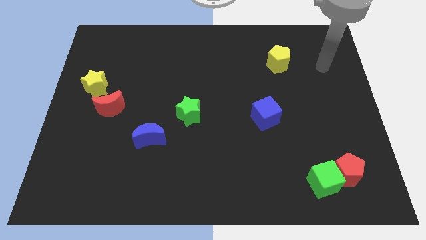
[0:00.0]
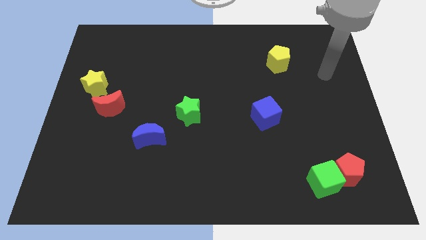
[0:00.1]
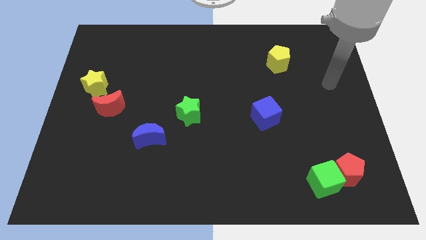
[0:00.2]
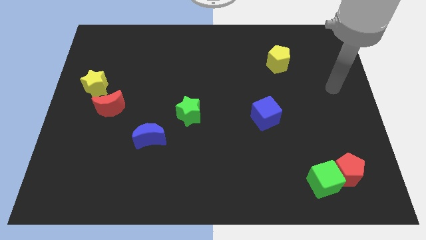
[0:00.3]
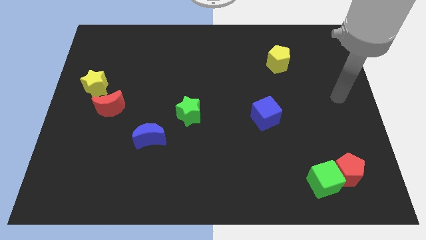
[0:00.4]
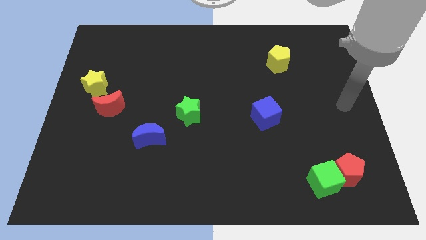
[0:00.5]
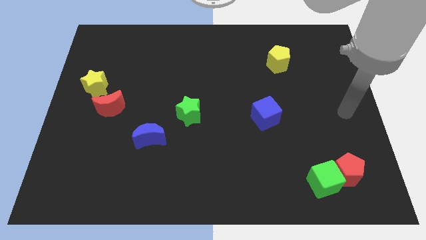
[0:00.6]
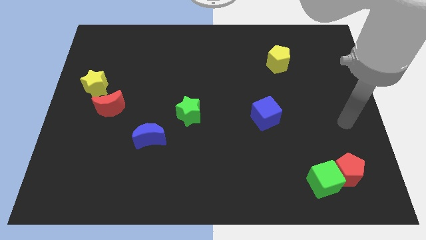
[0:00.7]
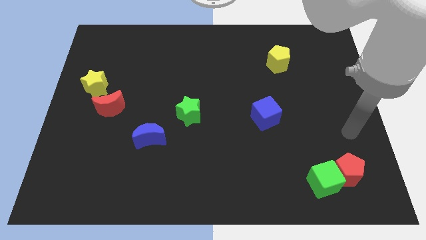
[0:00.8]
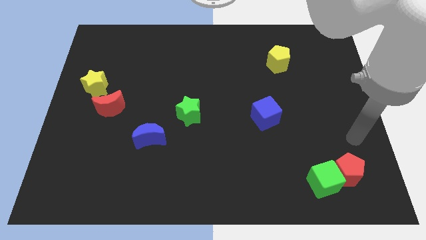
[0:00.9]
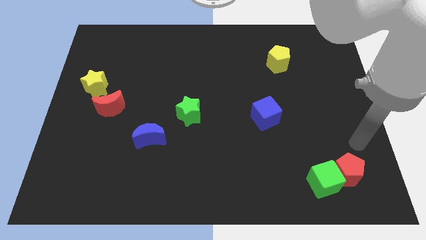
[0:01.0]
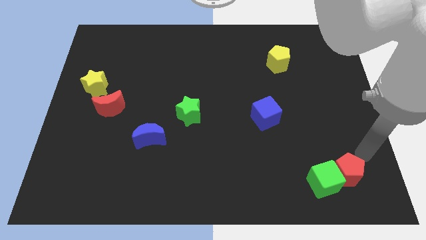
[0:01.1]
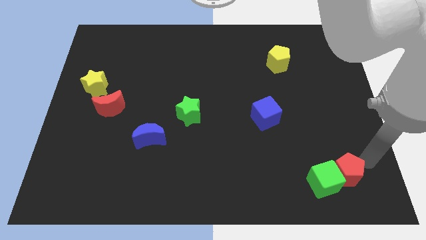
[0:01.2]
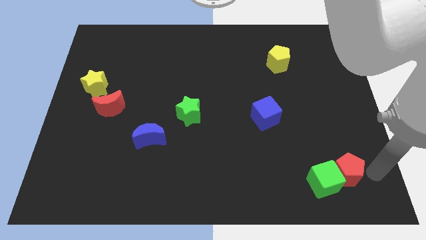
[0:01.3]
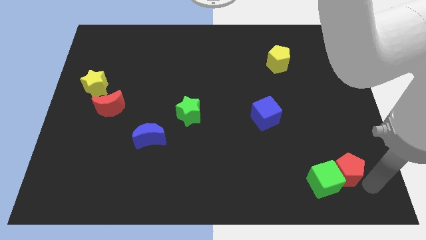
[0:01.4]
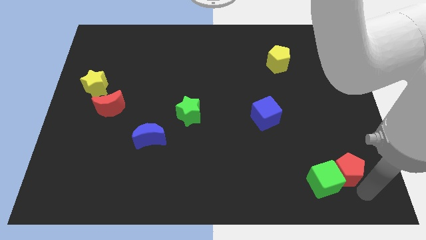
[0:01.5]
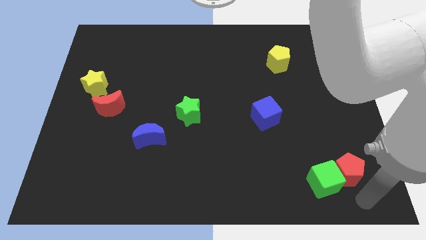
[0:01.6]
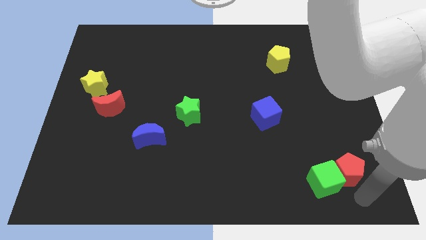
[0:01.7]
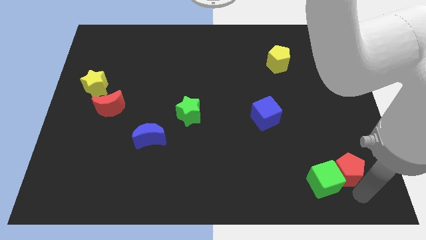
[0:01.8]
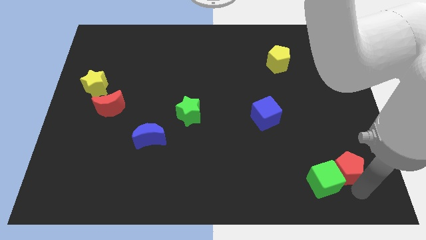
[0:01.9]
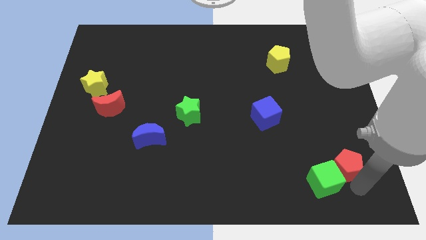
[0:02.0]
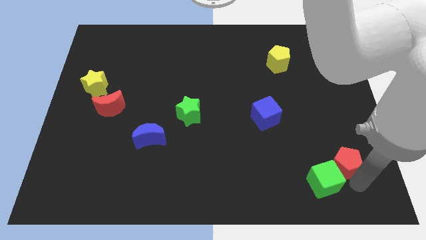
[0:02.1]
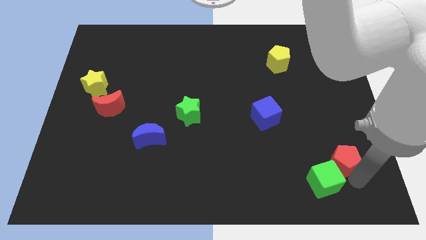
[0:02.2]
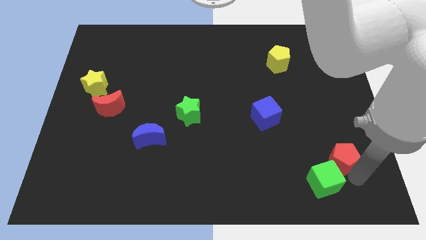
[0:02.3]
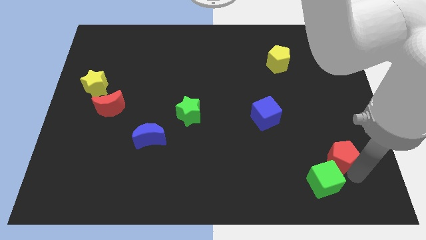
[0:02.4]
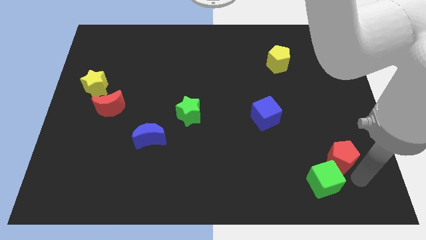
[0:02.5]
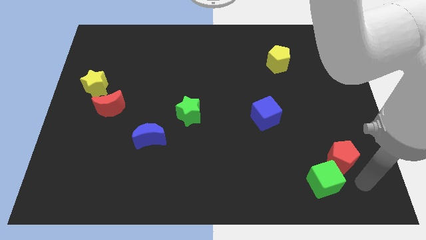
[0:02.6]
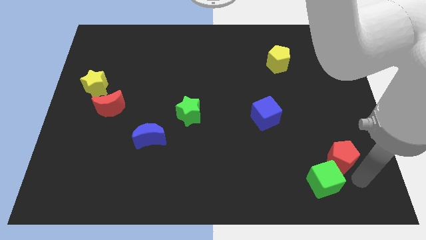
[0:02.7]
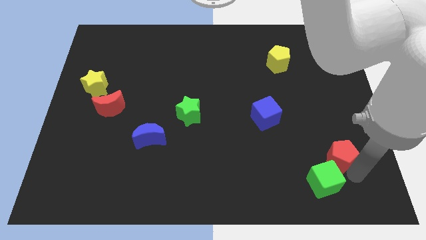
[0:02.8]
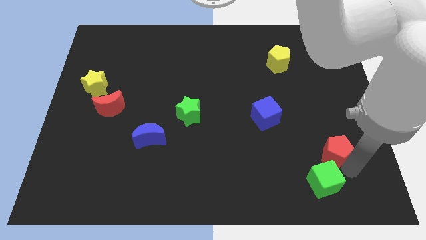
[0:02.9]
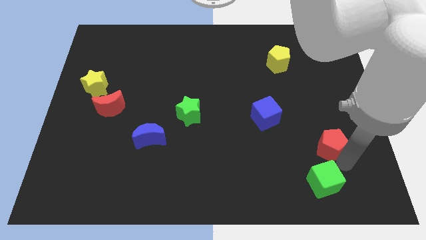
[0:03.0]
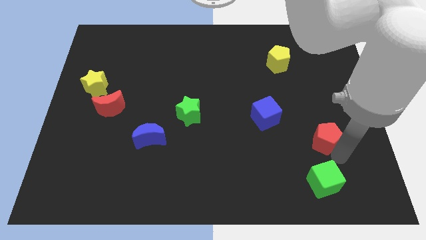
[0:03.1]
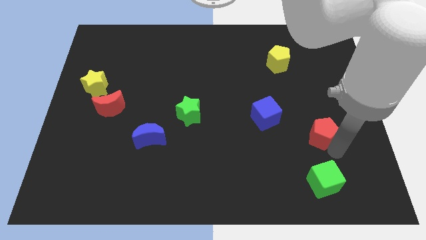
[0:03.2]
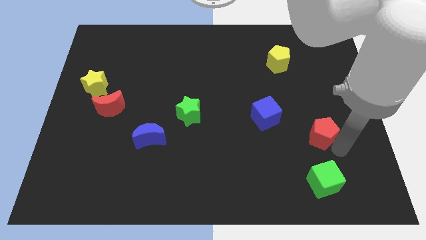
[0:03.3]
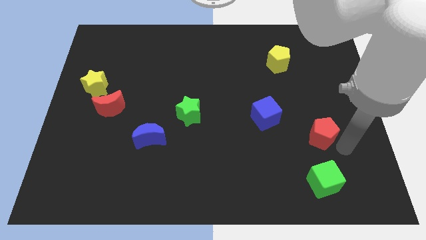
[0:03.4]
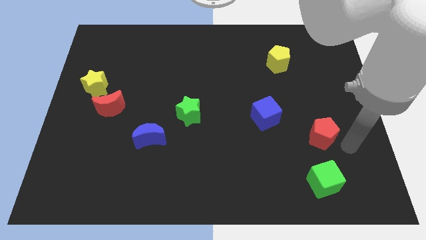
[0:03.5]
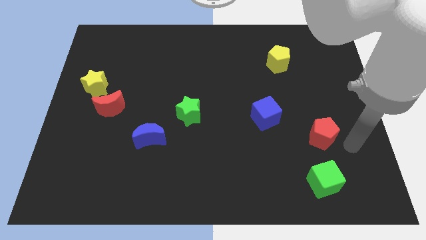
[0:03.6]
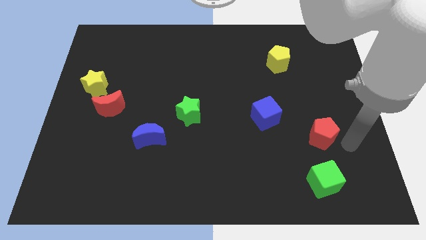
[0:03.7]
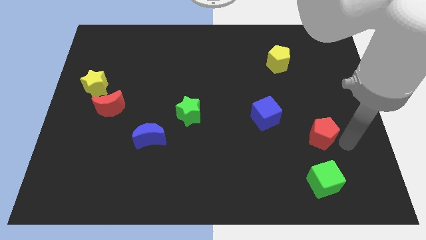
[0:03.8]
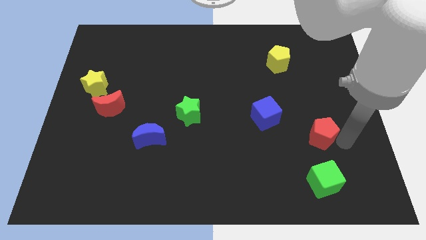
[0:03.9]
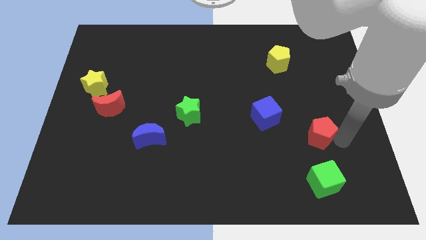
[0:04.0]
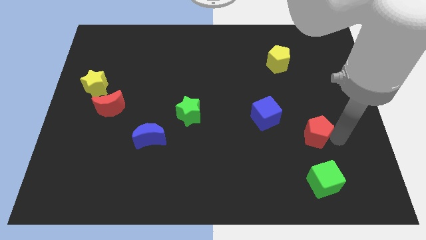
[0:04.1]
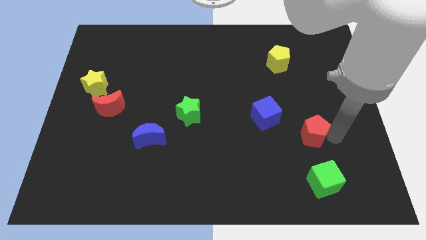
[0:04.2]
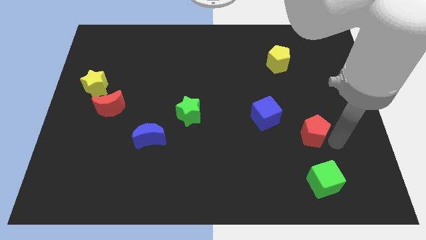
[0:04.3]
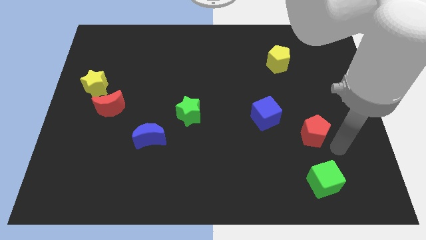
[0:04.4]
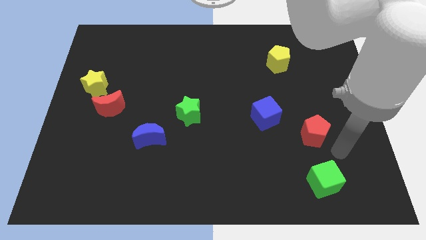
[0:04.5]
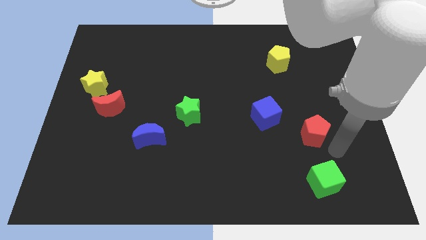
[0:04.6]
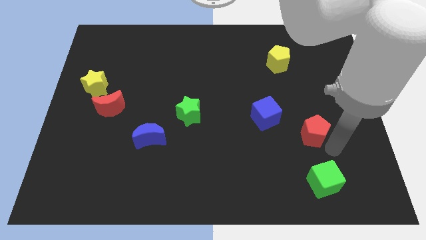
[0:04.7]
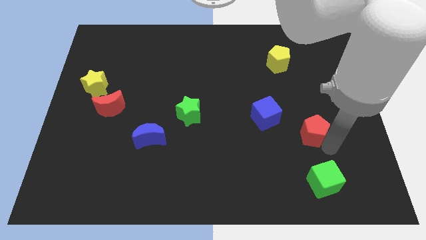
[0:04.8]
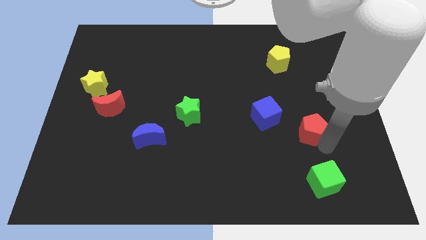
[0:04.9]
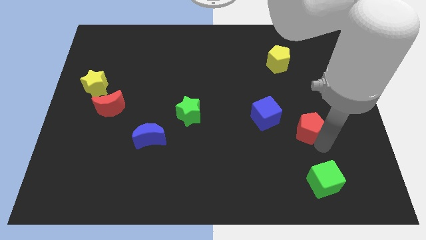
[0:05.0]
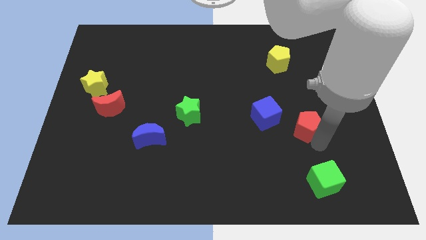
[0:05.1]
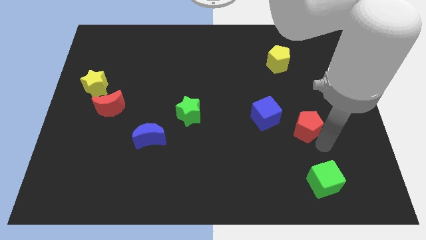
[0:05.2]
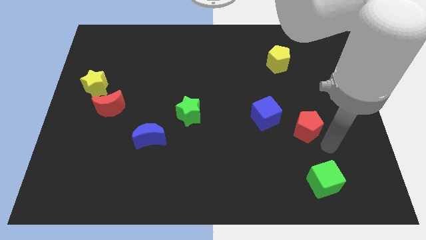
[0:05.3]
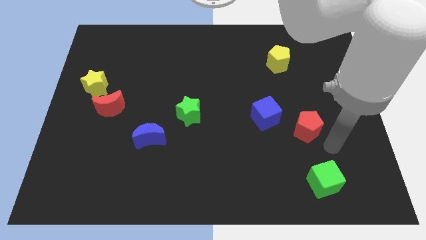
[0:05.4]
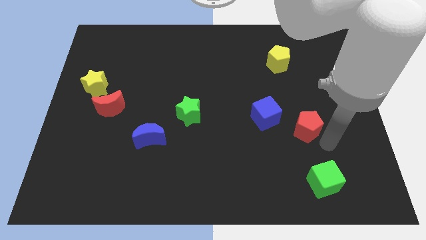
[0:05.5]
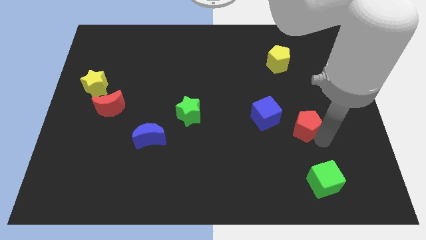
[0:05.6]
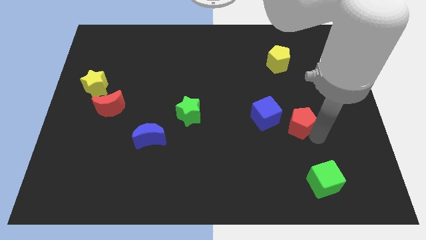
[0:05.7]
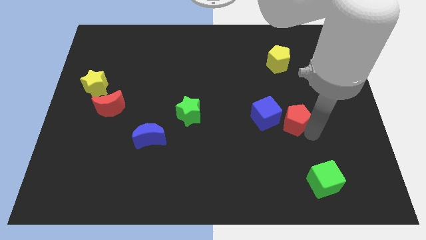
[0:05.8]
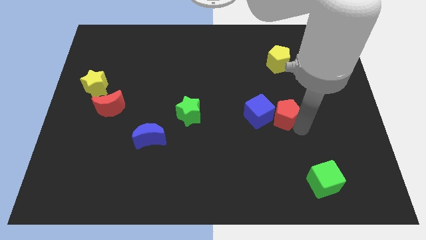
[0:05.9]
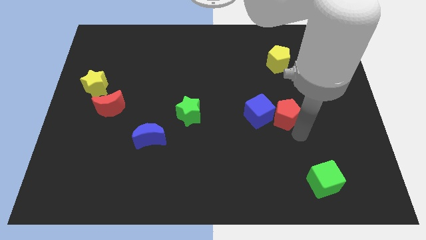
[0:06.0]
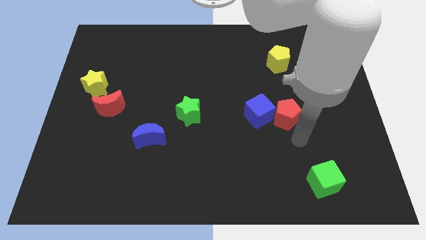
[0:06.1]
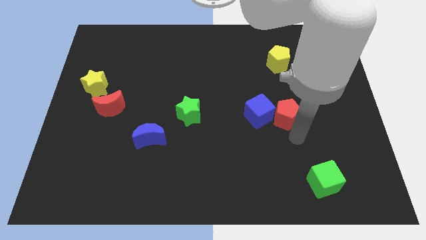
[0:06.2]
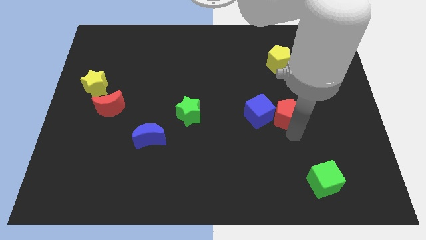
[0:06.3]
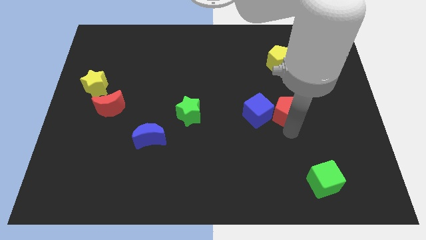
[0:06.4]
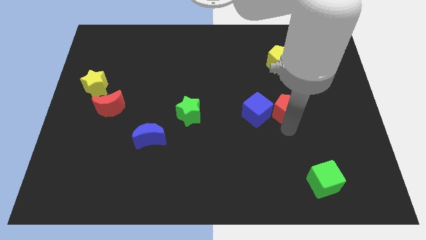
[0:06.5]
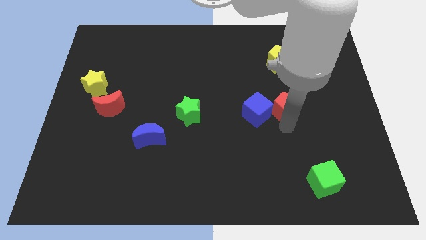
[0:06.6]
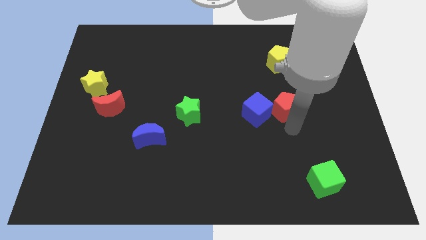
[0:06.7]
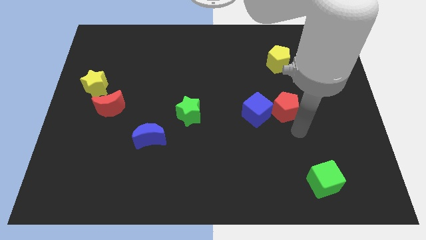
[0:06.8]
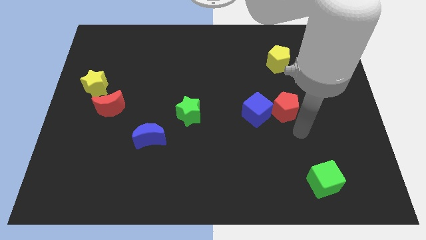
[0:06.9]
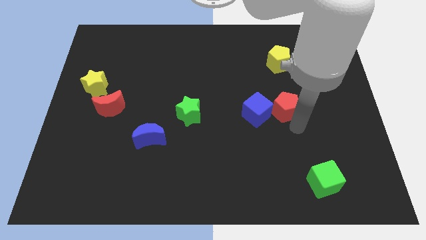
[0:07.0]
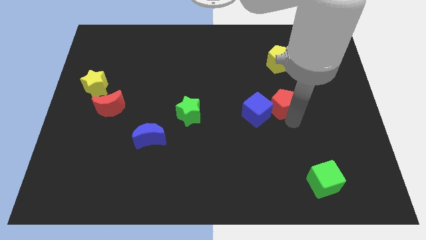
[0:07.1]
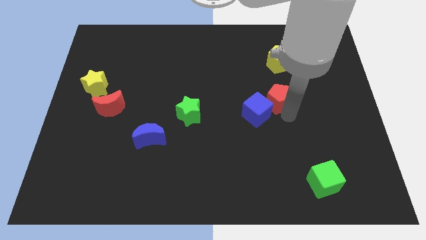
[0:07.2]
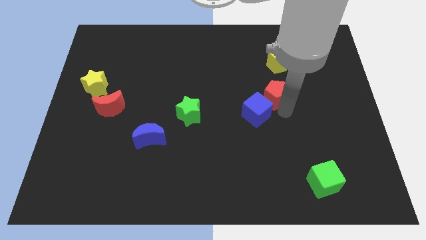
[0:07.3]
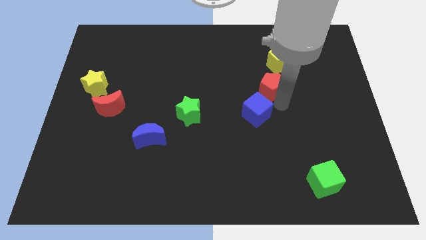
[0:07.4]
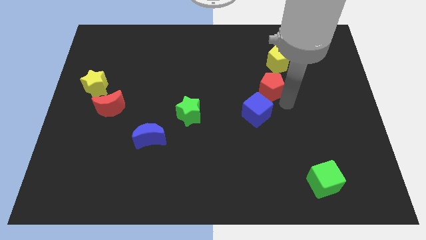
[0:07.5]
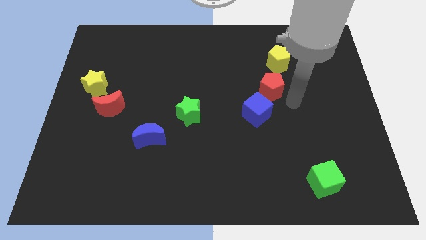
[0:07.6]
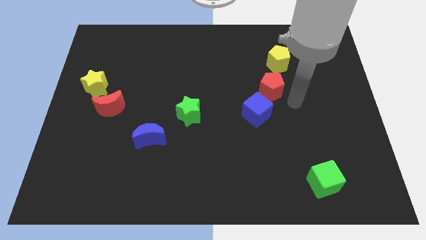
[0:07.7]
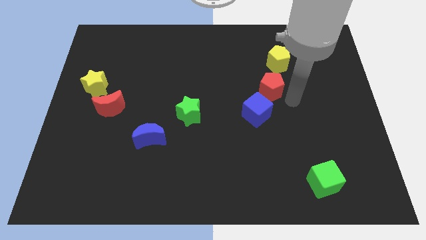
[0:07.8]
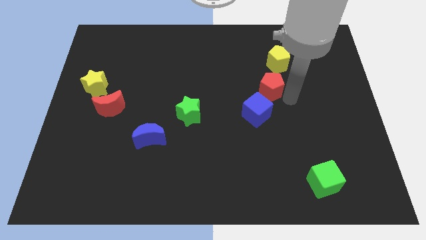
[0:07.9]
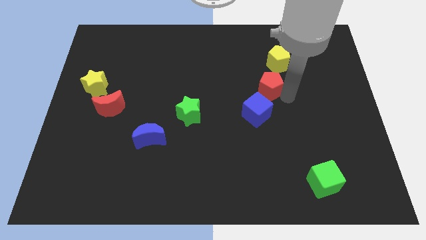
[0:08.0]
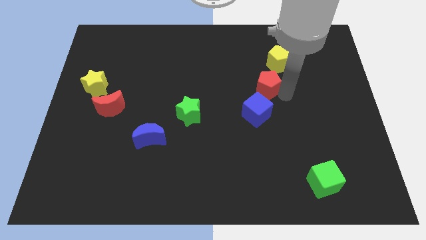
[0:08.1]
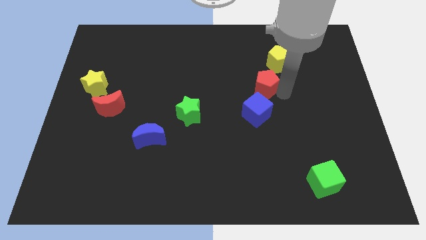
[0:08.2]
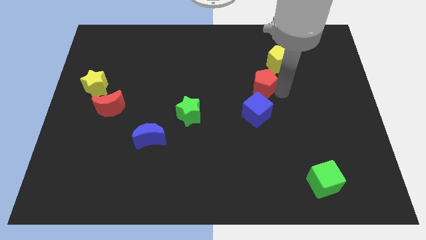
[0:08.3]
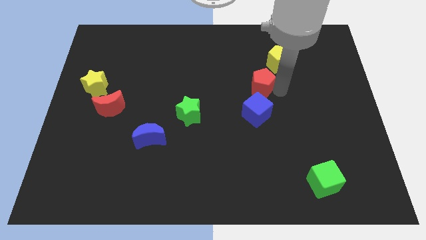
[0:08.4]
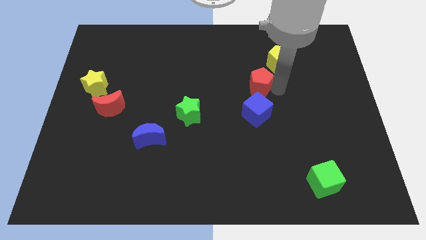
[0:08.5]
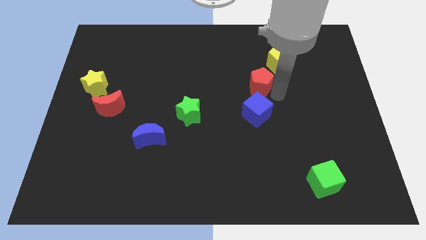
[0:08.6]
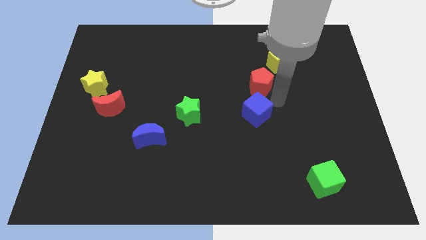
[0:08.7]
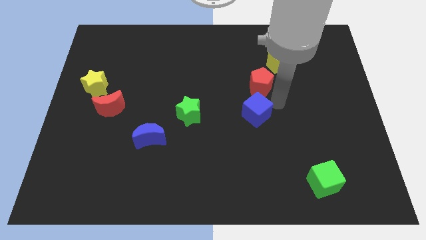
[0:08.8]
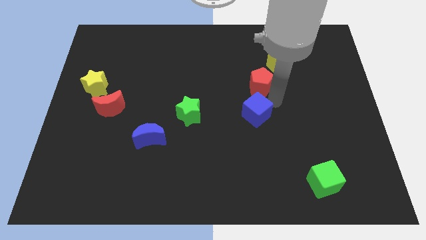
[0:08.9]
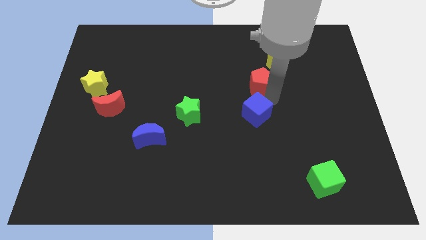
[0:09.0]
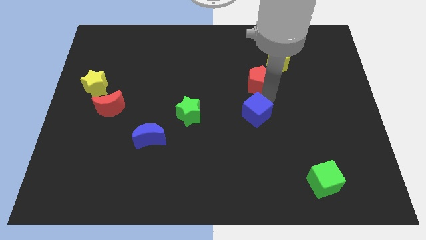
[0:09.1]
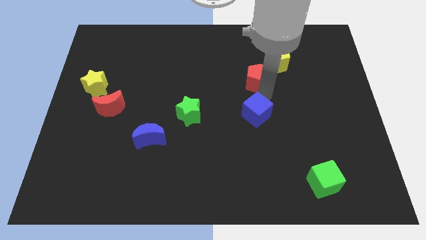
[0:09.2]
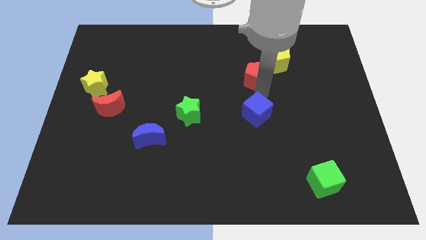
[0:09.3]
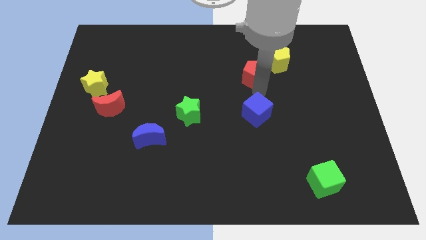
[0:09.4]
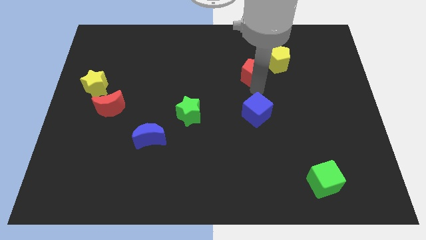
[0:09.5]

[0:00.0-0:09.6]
move the red pentagon to the left side of the yellow pentagon
